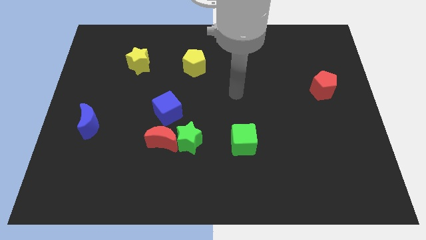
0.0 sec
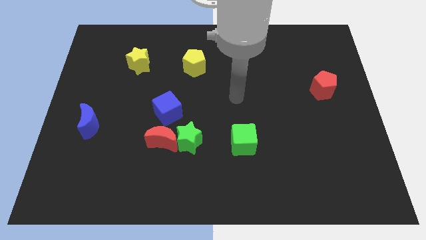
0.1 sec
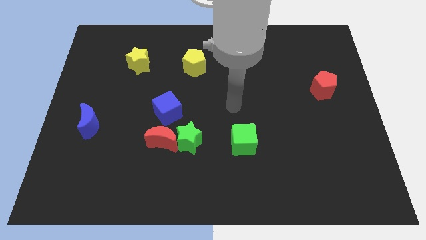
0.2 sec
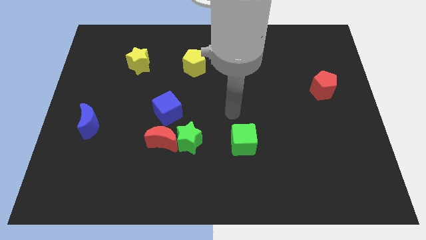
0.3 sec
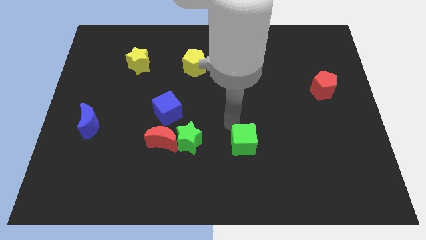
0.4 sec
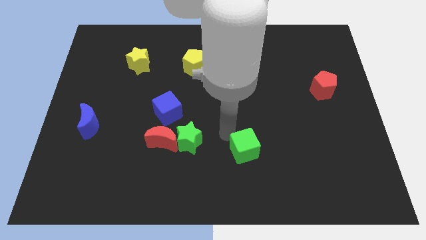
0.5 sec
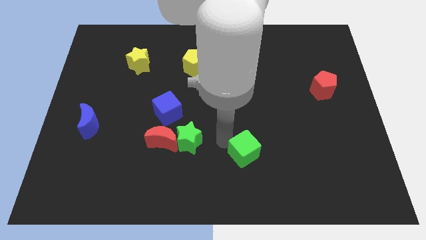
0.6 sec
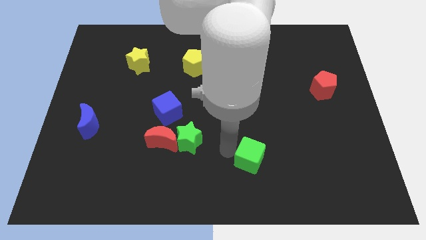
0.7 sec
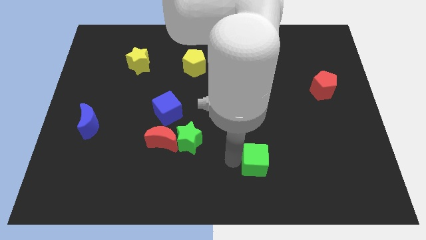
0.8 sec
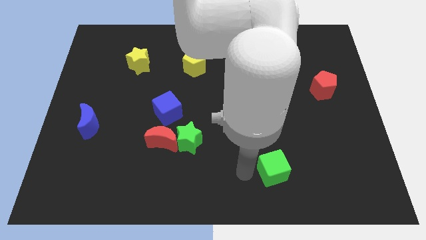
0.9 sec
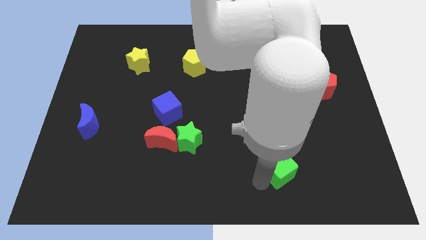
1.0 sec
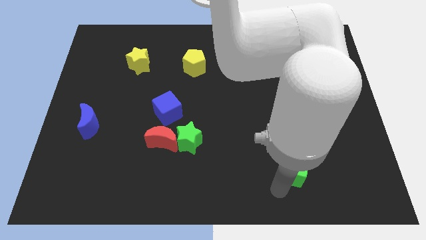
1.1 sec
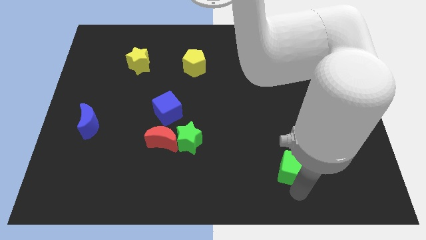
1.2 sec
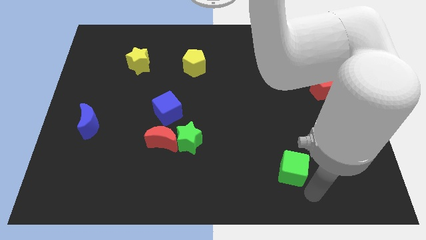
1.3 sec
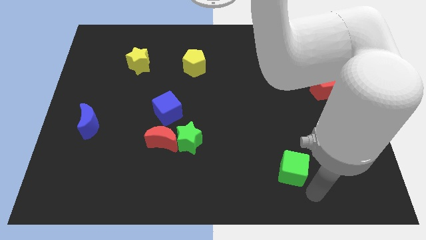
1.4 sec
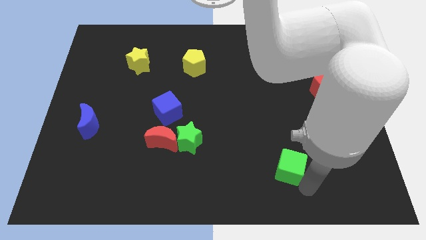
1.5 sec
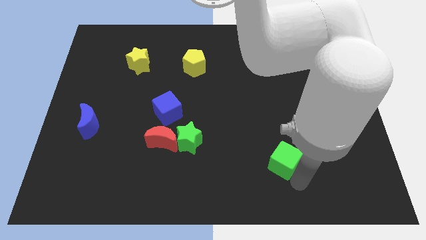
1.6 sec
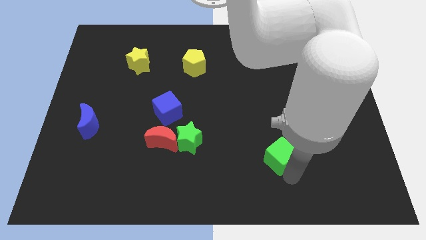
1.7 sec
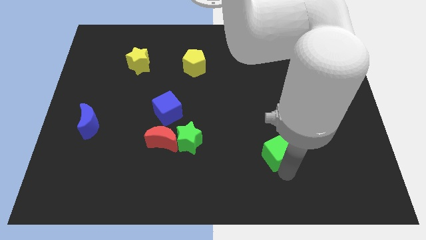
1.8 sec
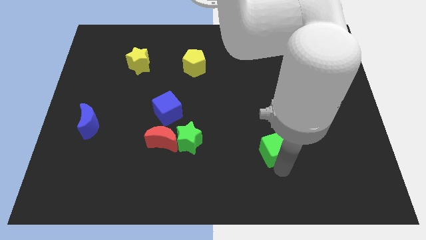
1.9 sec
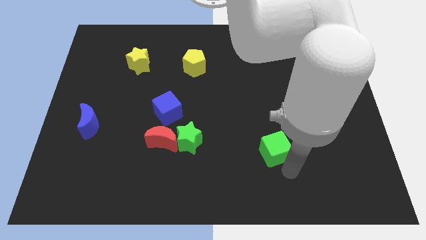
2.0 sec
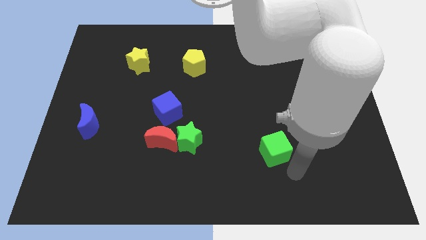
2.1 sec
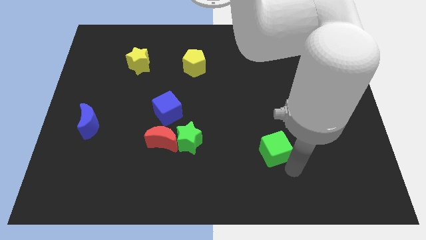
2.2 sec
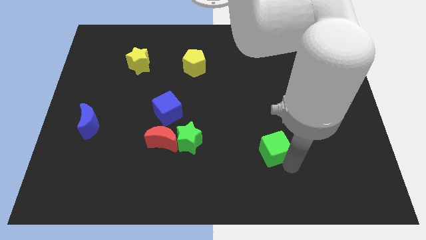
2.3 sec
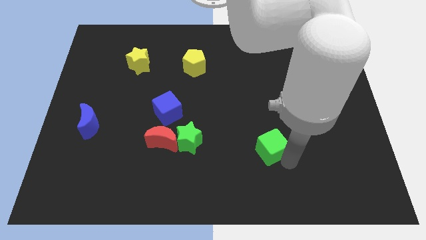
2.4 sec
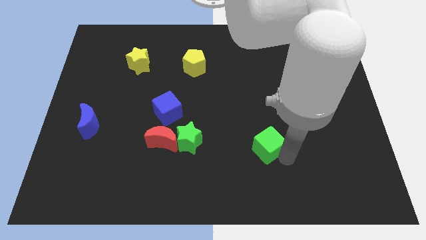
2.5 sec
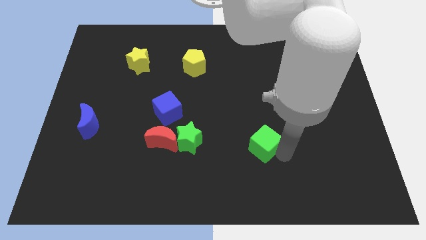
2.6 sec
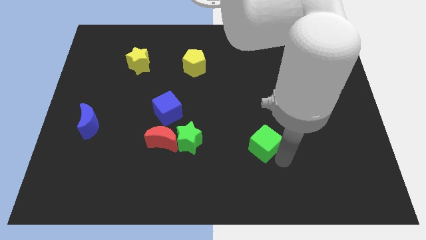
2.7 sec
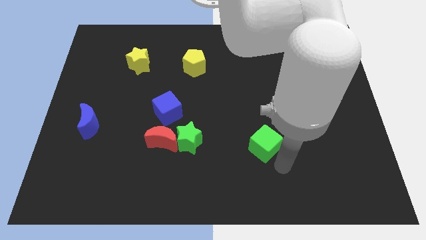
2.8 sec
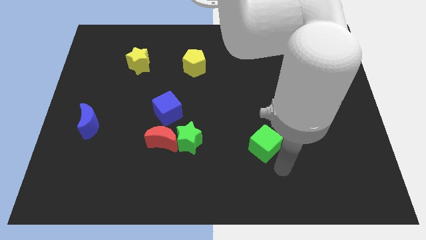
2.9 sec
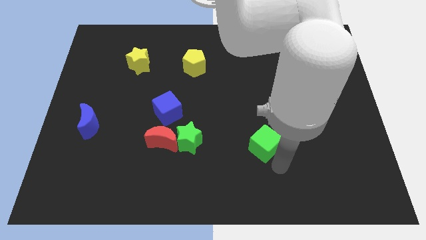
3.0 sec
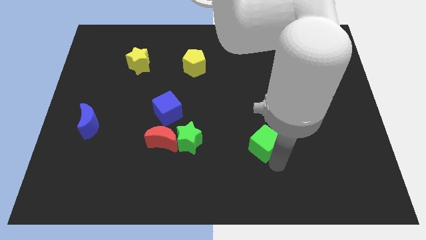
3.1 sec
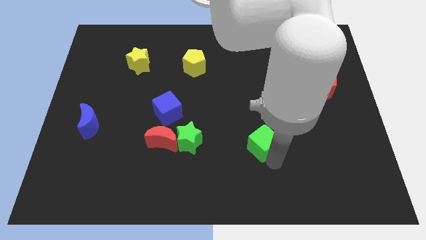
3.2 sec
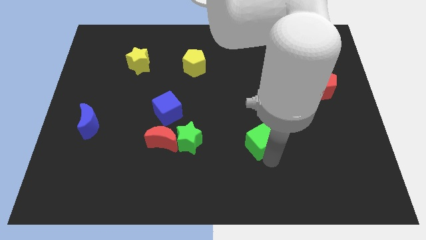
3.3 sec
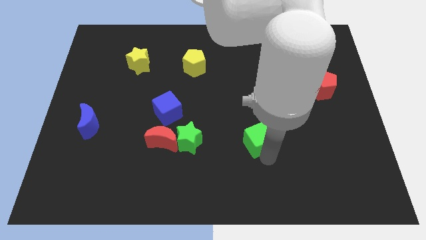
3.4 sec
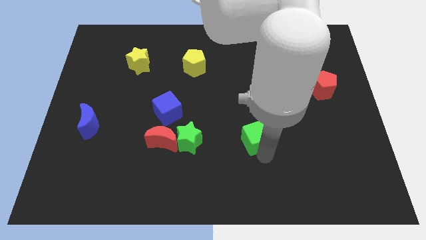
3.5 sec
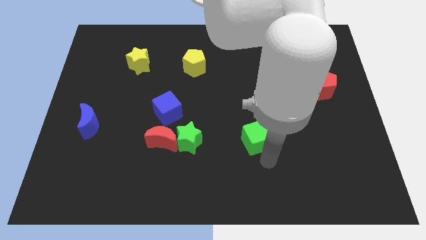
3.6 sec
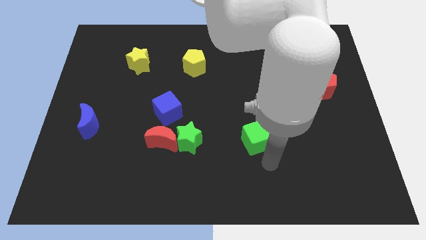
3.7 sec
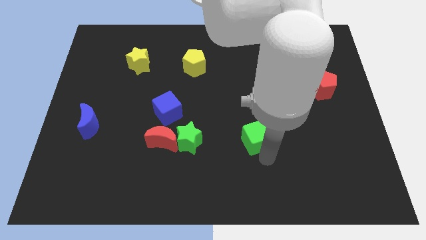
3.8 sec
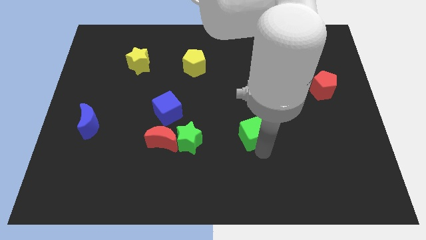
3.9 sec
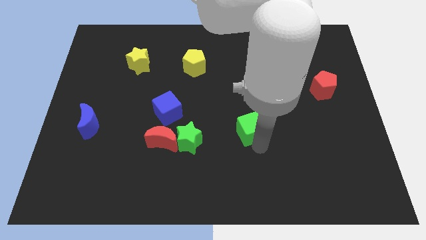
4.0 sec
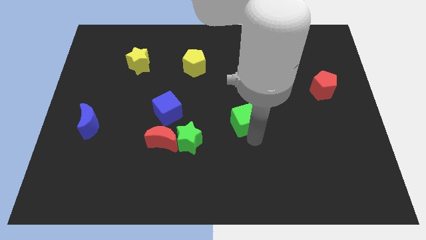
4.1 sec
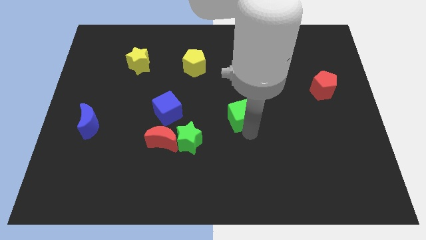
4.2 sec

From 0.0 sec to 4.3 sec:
slightly push the green cube upwards

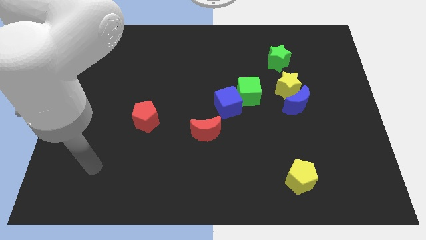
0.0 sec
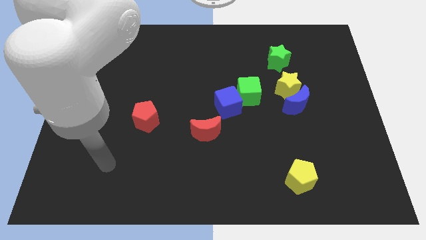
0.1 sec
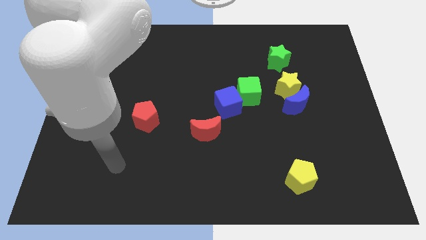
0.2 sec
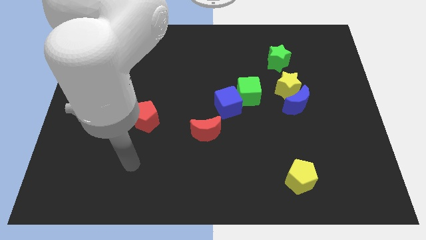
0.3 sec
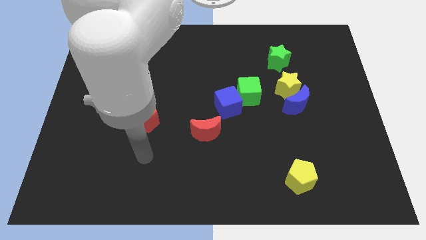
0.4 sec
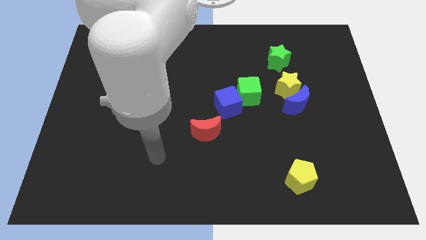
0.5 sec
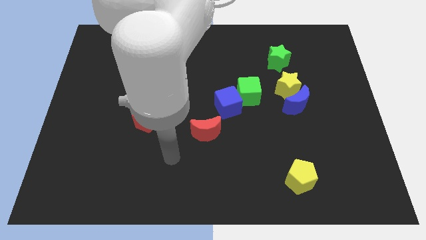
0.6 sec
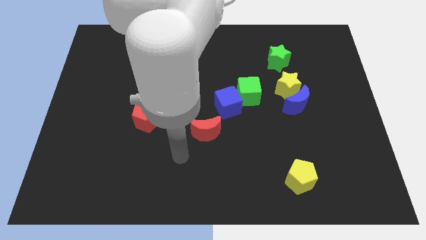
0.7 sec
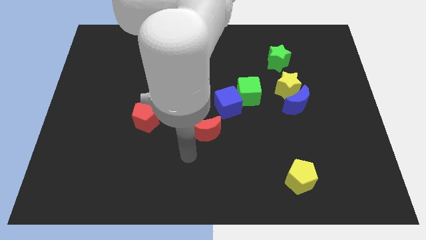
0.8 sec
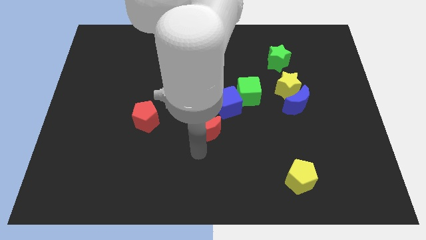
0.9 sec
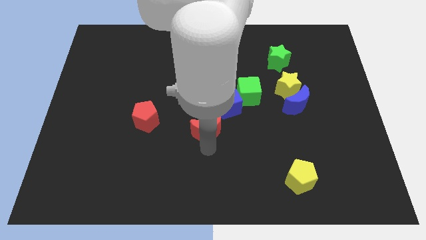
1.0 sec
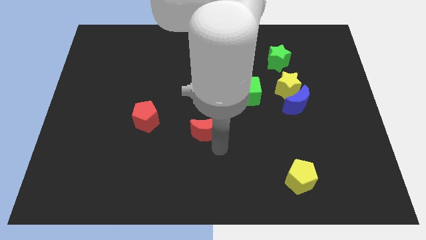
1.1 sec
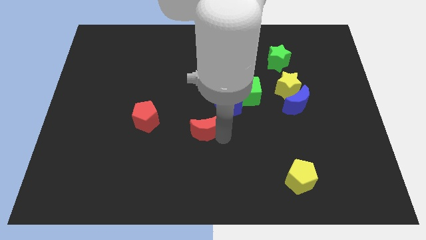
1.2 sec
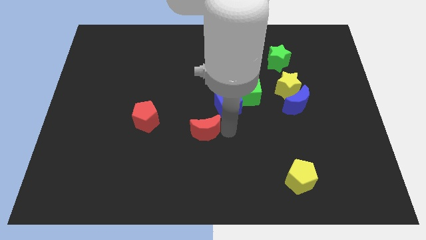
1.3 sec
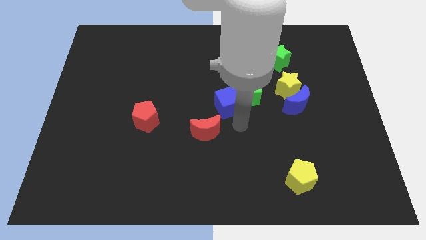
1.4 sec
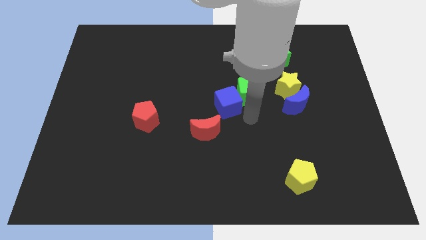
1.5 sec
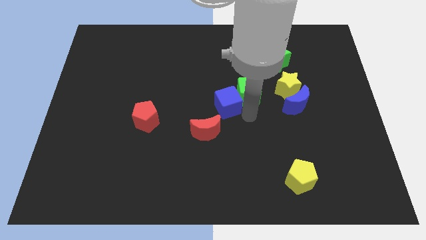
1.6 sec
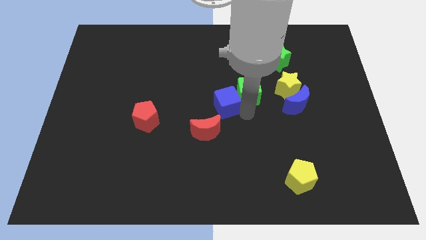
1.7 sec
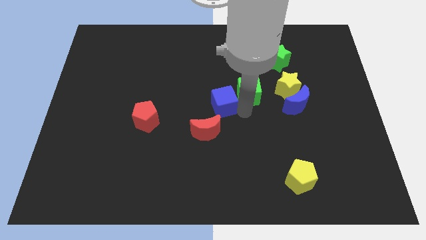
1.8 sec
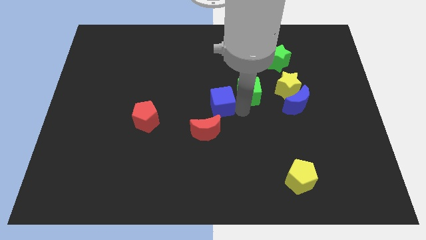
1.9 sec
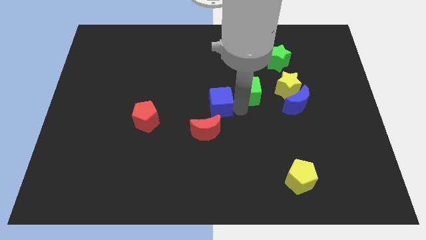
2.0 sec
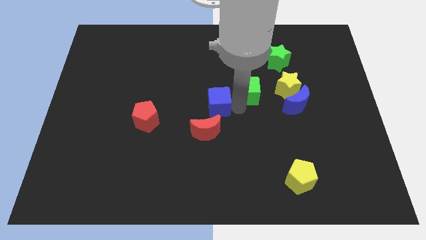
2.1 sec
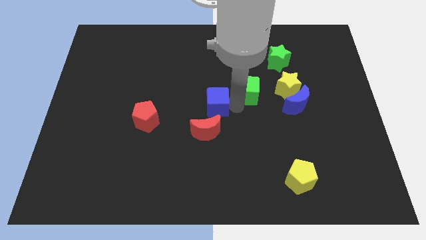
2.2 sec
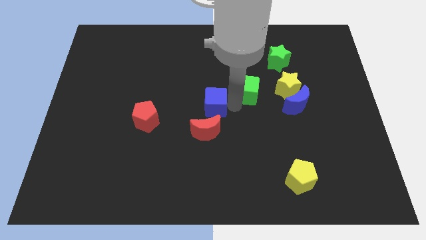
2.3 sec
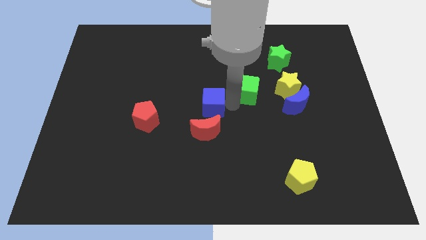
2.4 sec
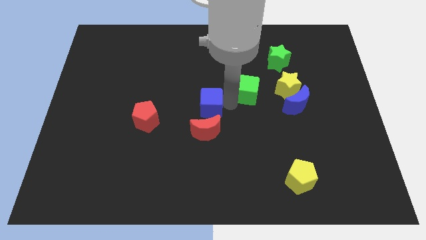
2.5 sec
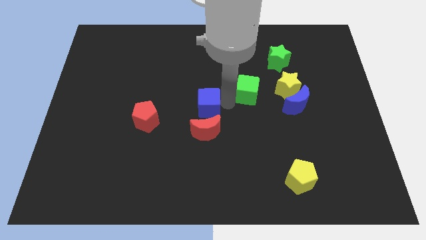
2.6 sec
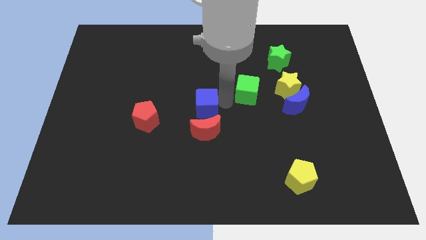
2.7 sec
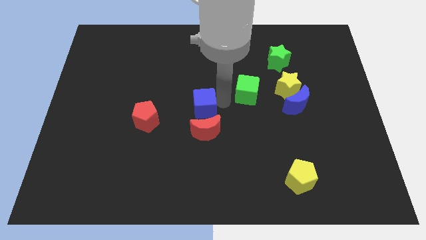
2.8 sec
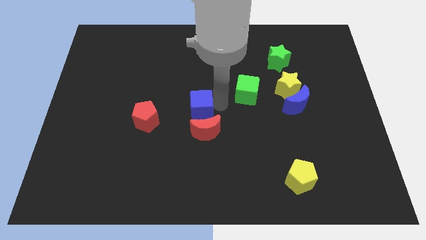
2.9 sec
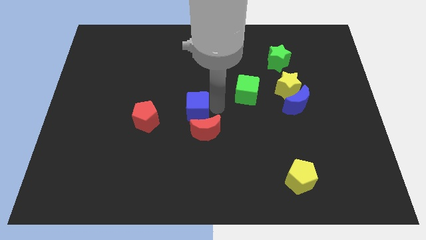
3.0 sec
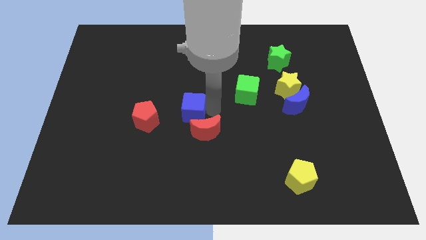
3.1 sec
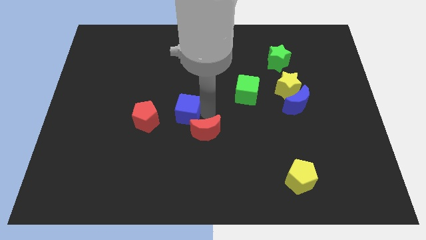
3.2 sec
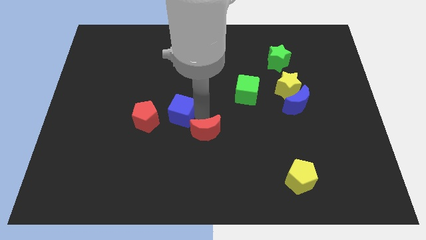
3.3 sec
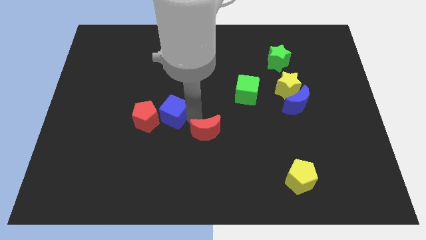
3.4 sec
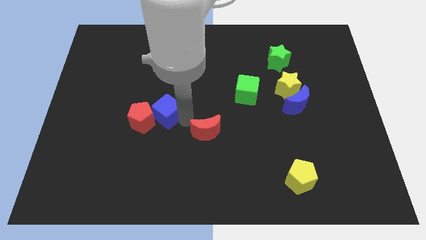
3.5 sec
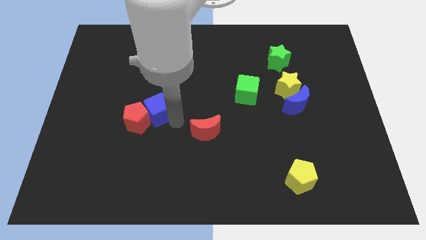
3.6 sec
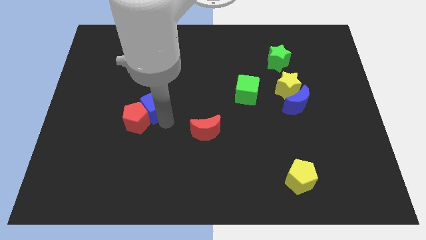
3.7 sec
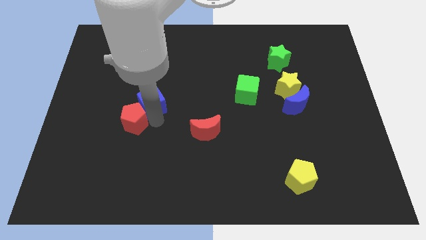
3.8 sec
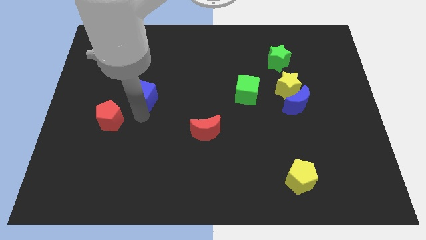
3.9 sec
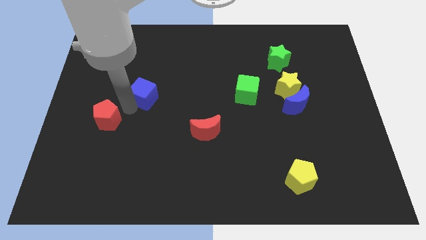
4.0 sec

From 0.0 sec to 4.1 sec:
slide the blue cube a little upwards and then to the left
